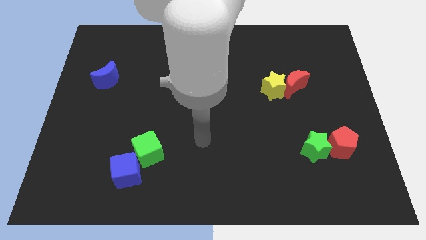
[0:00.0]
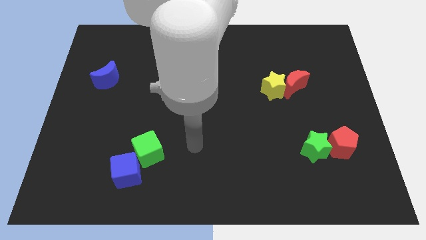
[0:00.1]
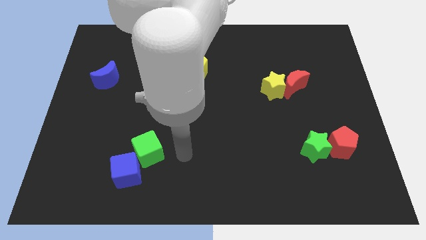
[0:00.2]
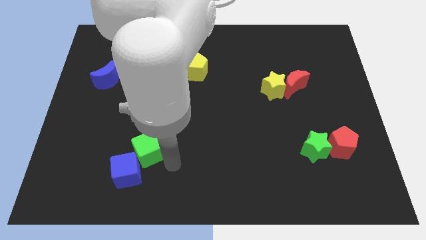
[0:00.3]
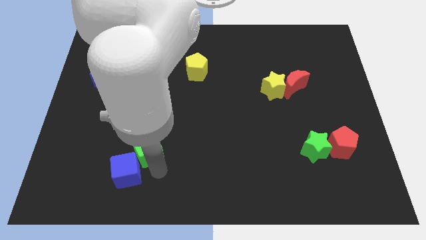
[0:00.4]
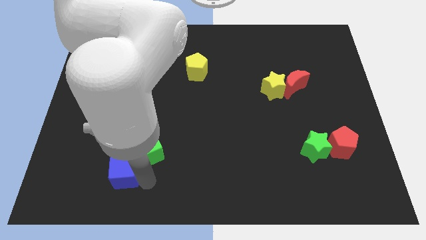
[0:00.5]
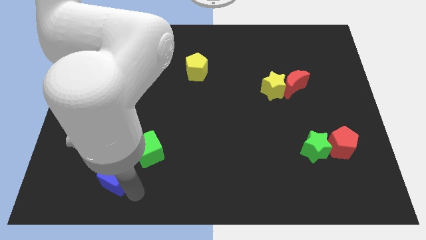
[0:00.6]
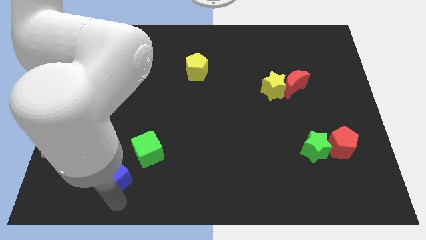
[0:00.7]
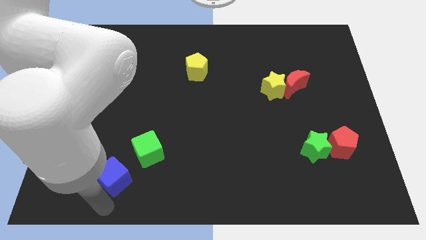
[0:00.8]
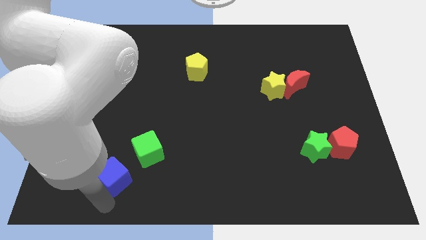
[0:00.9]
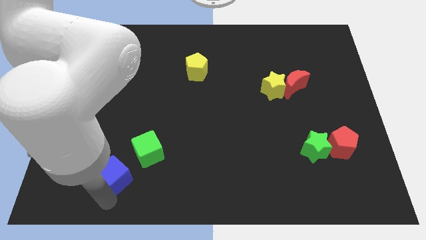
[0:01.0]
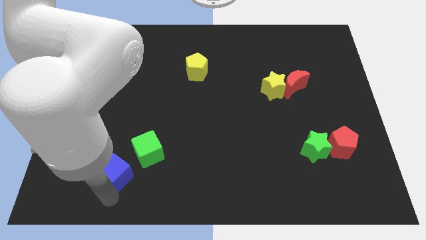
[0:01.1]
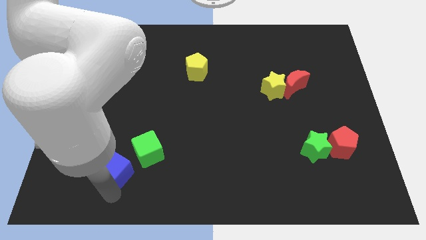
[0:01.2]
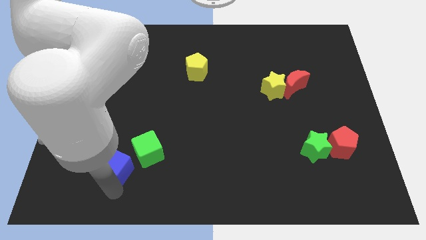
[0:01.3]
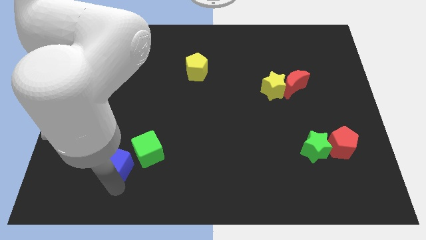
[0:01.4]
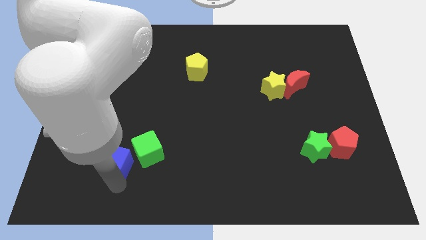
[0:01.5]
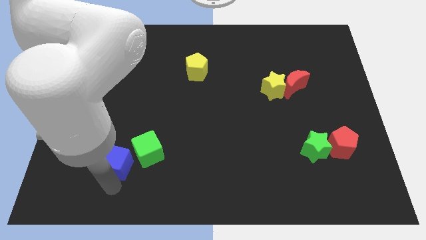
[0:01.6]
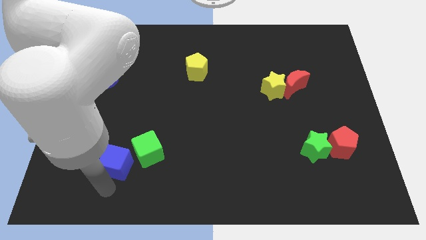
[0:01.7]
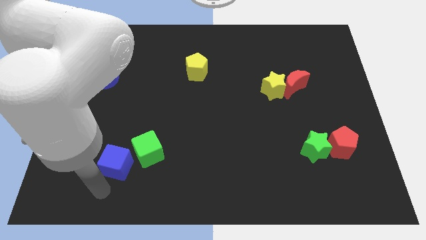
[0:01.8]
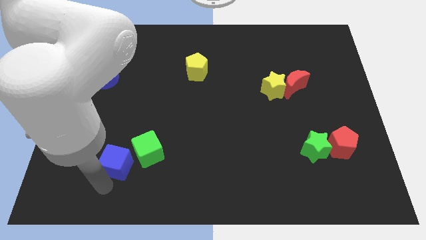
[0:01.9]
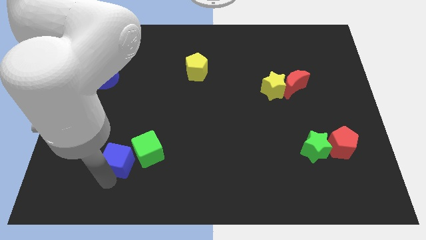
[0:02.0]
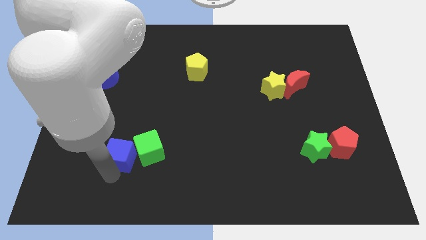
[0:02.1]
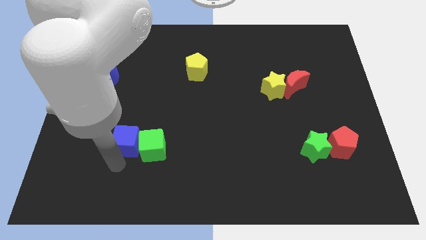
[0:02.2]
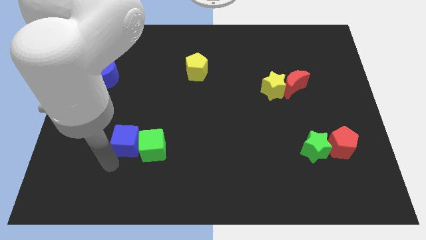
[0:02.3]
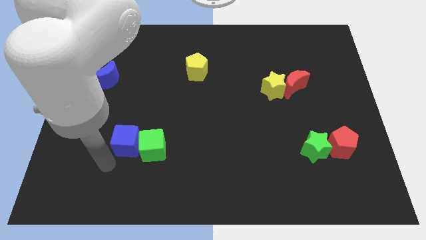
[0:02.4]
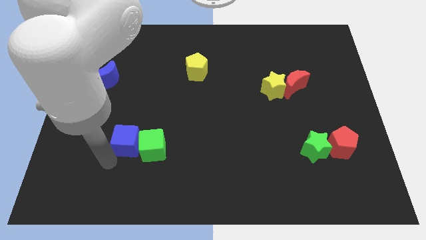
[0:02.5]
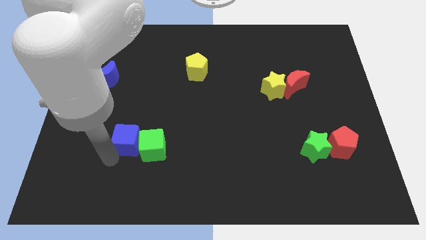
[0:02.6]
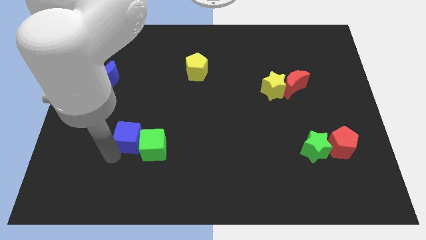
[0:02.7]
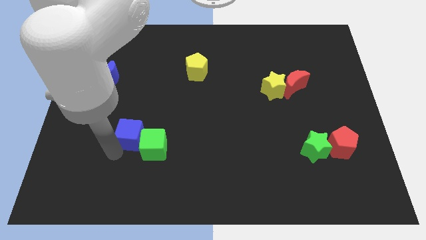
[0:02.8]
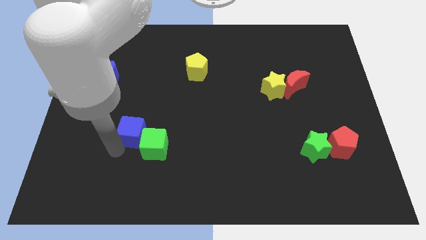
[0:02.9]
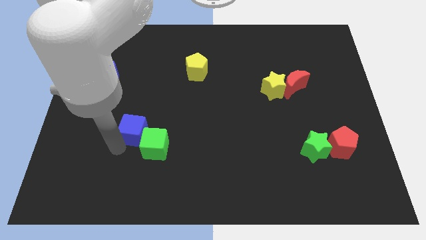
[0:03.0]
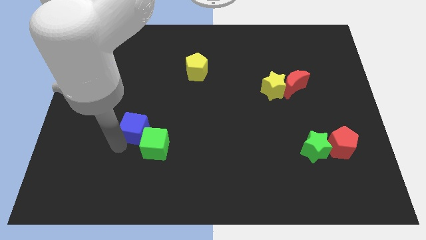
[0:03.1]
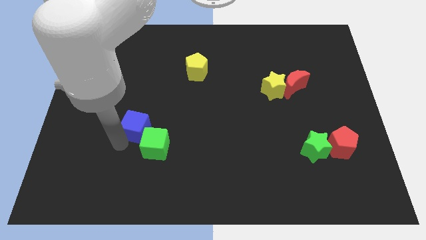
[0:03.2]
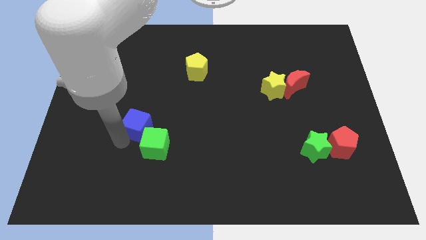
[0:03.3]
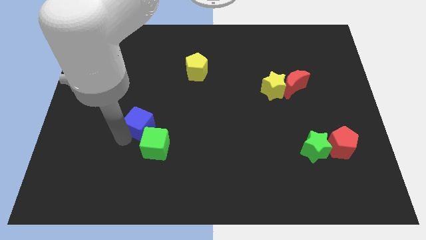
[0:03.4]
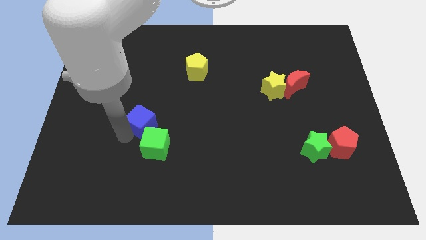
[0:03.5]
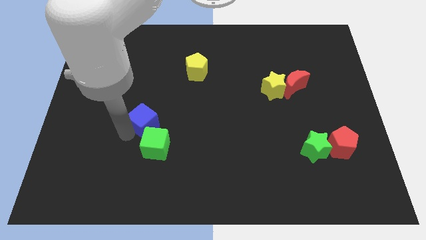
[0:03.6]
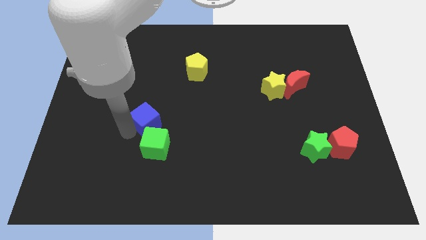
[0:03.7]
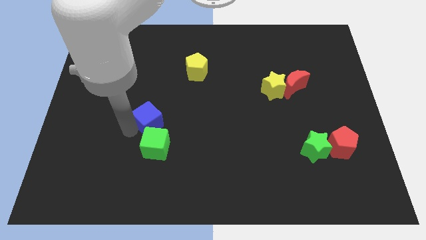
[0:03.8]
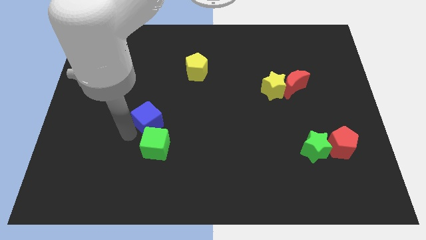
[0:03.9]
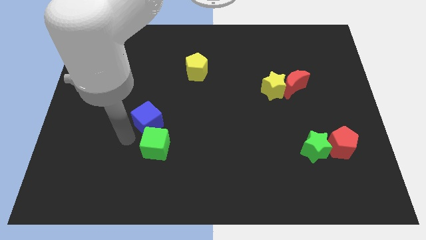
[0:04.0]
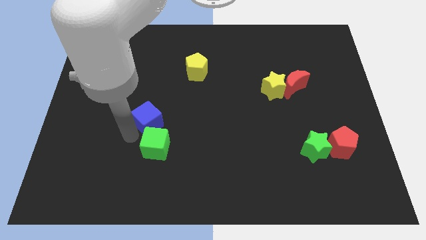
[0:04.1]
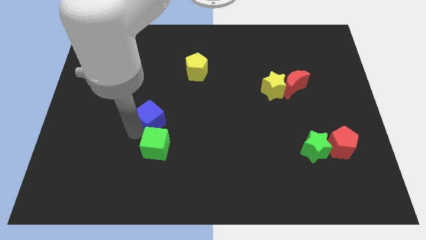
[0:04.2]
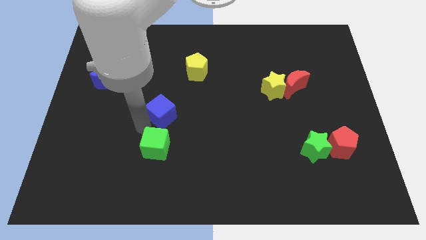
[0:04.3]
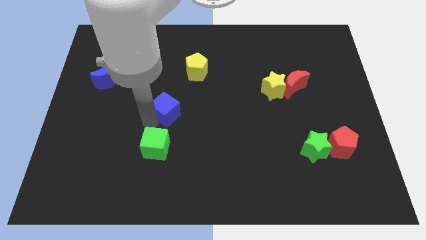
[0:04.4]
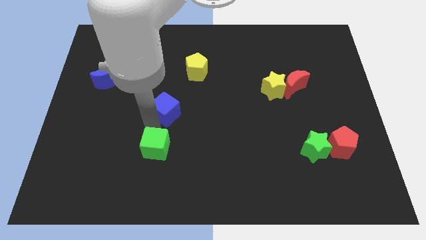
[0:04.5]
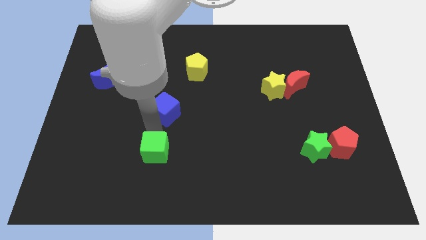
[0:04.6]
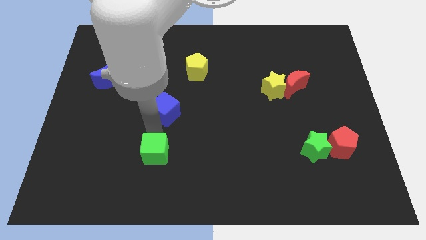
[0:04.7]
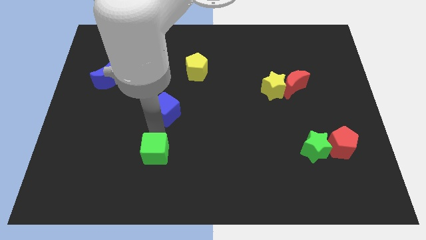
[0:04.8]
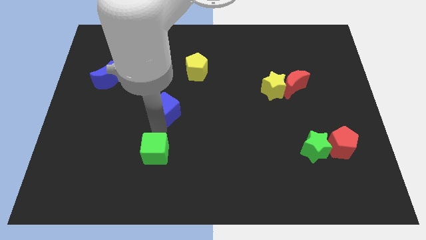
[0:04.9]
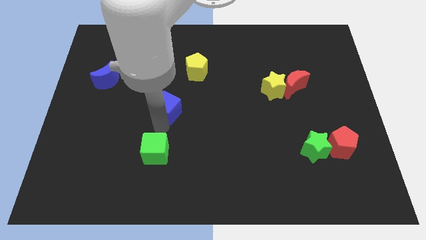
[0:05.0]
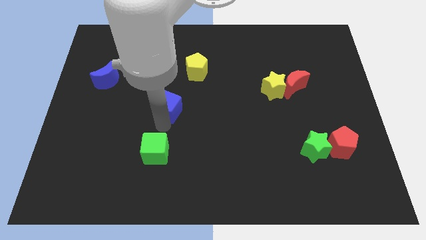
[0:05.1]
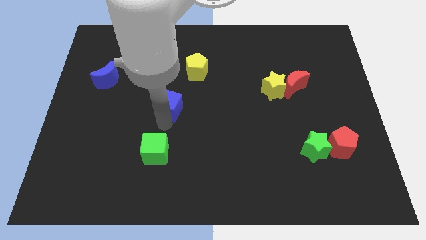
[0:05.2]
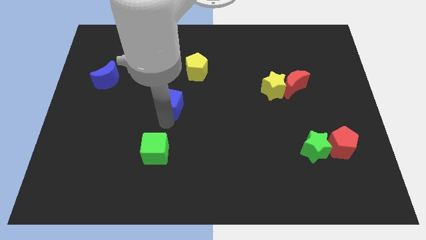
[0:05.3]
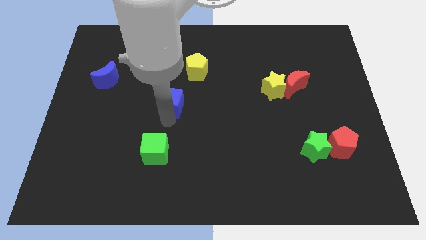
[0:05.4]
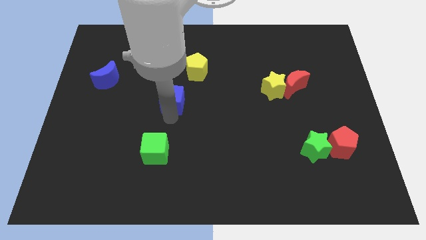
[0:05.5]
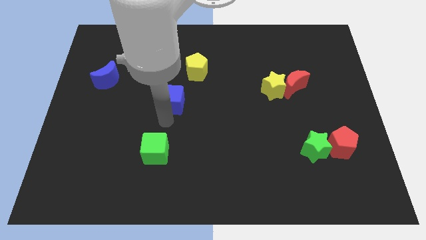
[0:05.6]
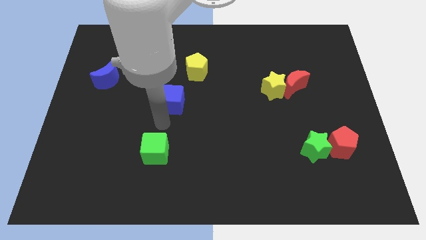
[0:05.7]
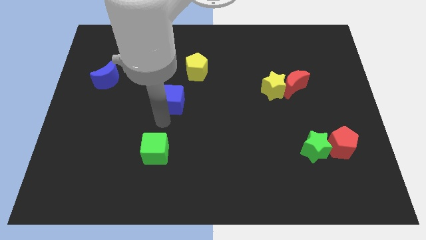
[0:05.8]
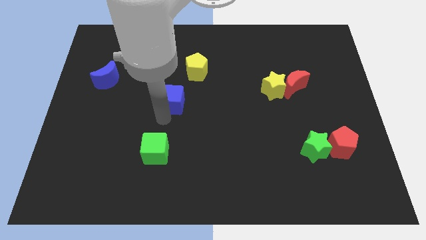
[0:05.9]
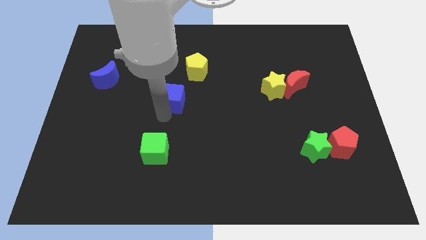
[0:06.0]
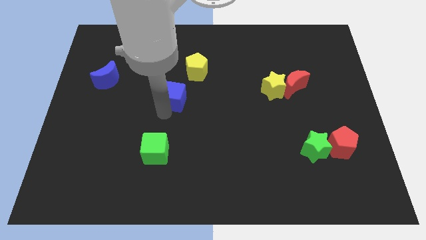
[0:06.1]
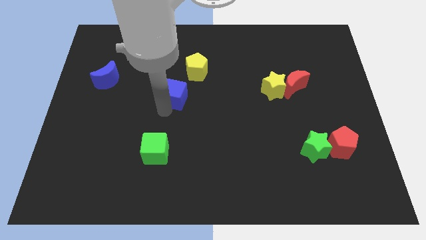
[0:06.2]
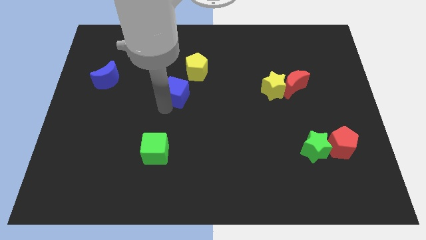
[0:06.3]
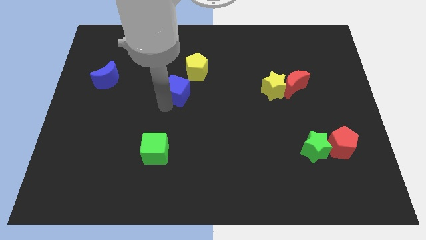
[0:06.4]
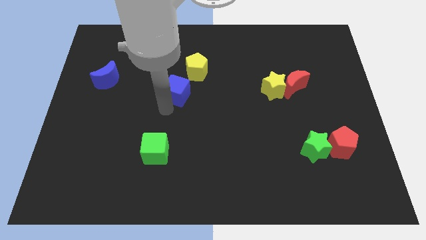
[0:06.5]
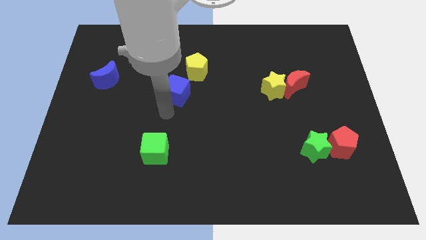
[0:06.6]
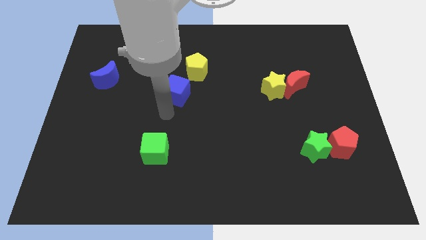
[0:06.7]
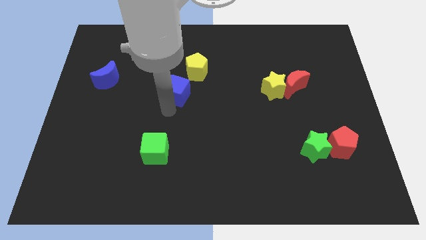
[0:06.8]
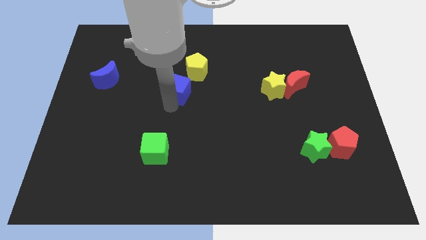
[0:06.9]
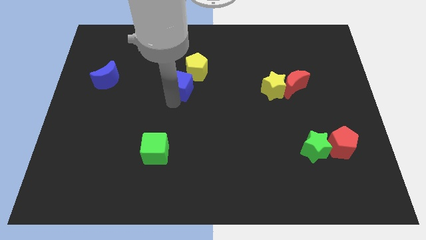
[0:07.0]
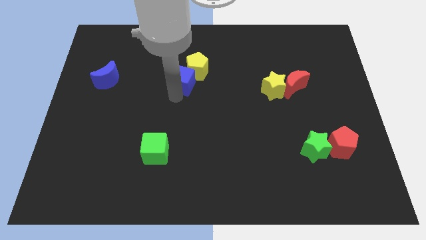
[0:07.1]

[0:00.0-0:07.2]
move the blue cube towards the yellow pentagon
